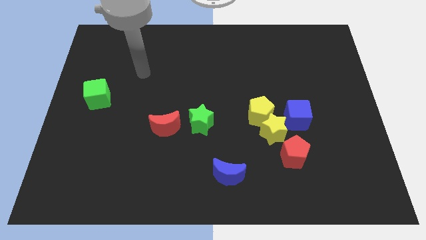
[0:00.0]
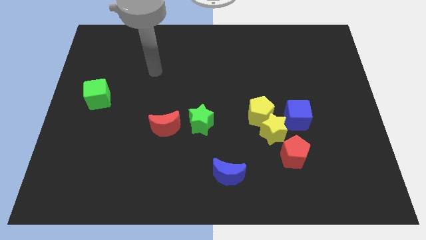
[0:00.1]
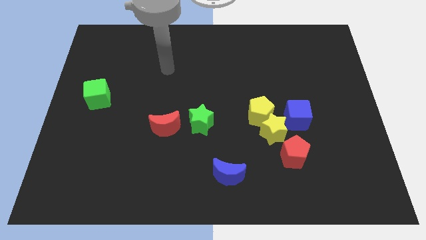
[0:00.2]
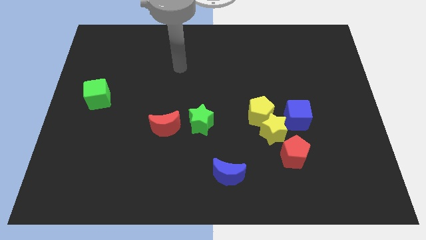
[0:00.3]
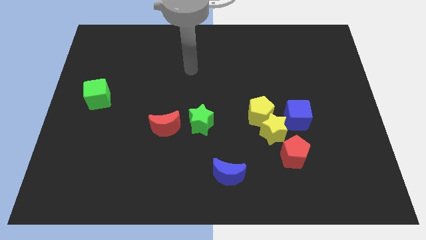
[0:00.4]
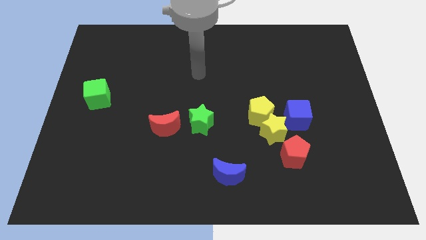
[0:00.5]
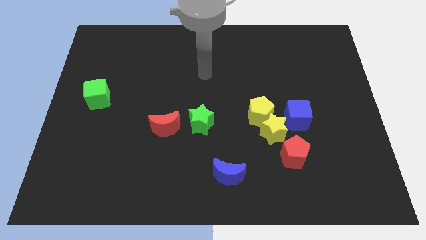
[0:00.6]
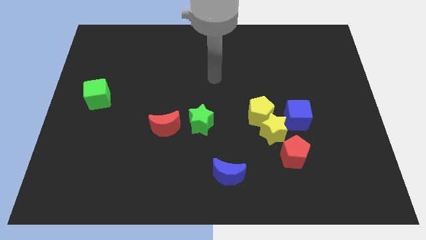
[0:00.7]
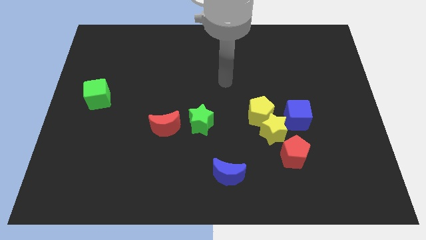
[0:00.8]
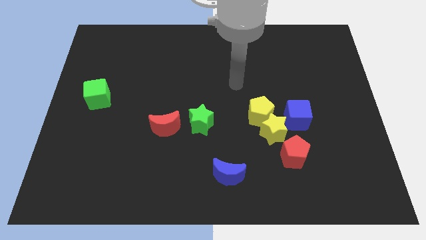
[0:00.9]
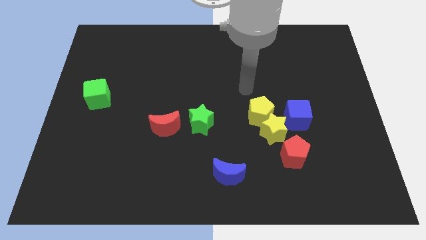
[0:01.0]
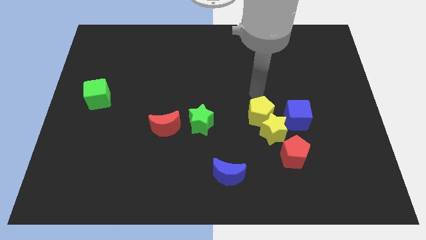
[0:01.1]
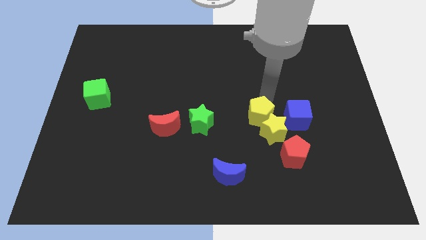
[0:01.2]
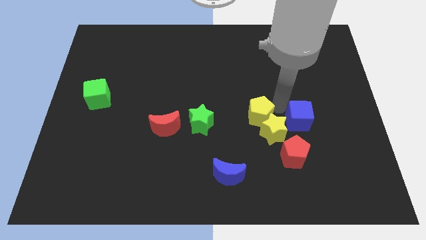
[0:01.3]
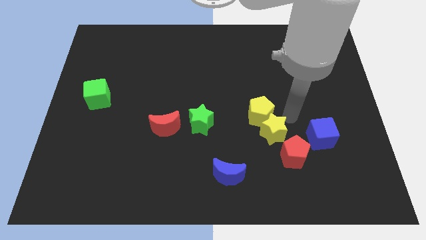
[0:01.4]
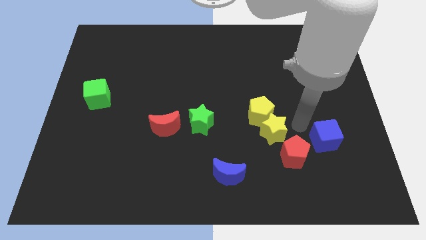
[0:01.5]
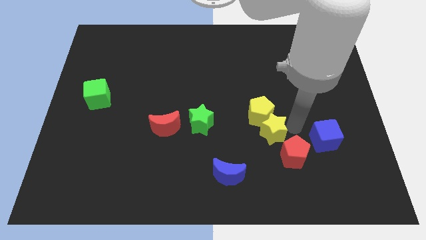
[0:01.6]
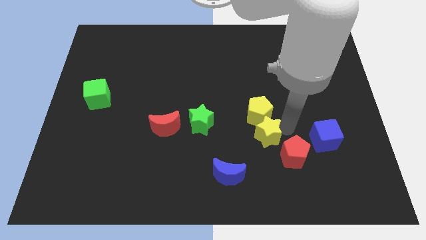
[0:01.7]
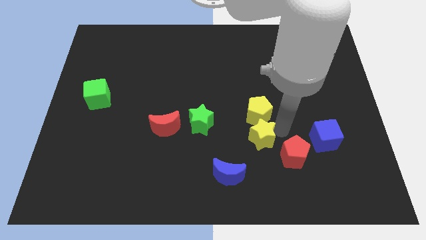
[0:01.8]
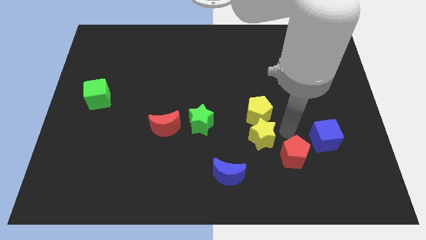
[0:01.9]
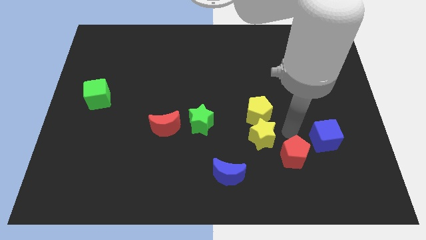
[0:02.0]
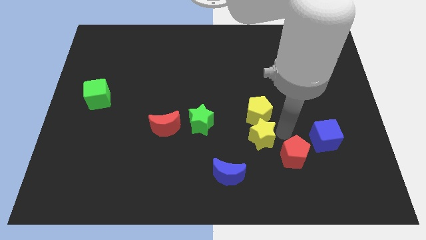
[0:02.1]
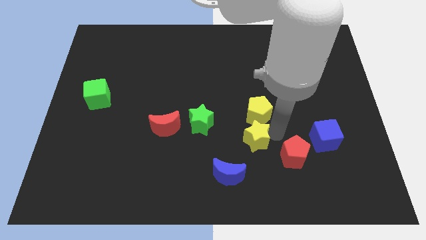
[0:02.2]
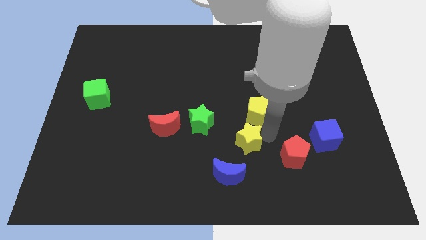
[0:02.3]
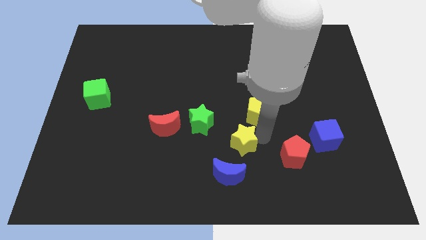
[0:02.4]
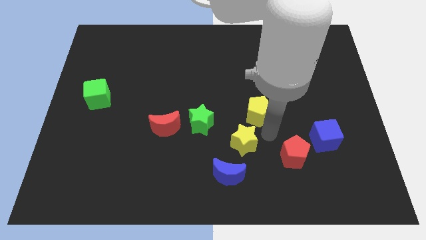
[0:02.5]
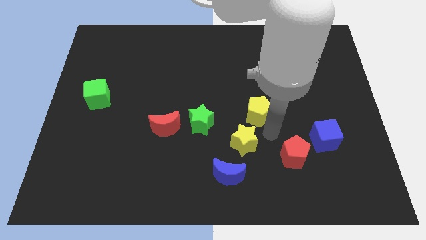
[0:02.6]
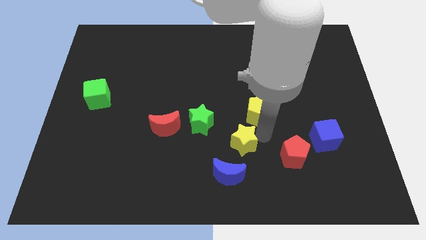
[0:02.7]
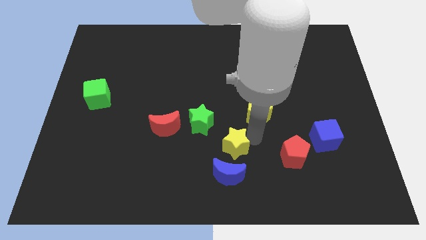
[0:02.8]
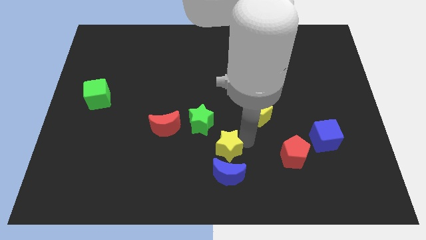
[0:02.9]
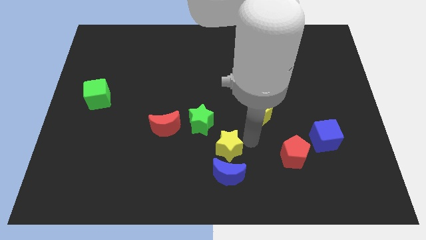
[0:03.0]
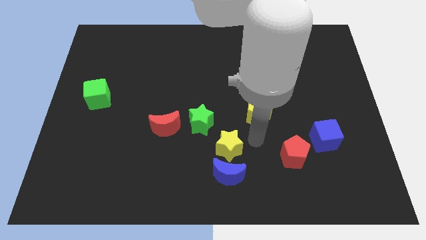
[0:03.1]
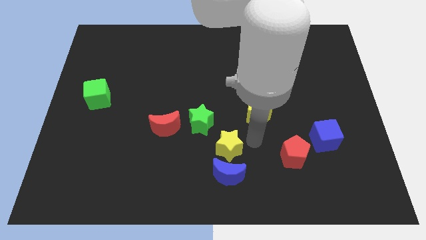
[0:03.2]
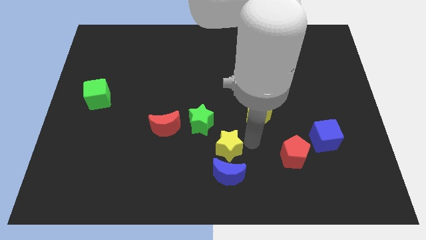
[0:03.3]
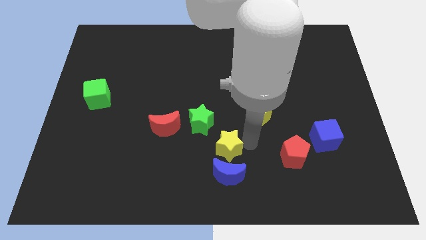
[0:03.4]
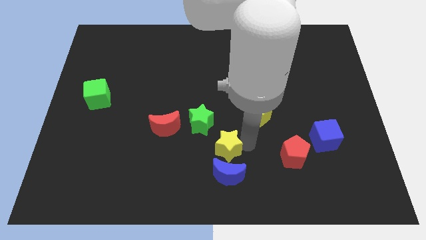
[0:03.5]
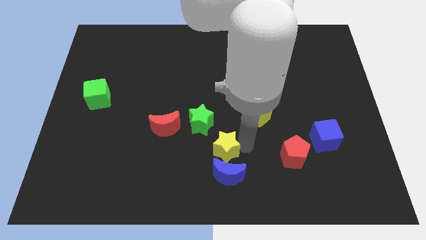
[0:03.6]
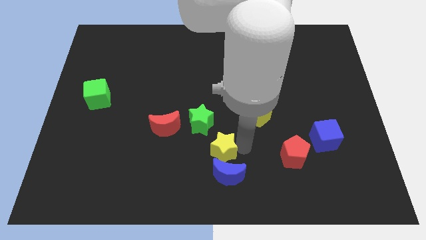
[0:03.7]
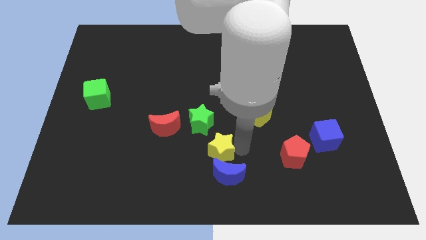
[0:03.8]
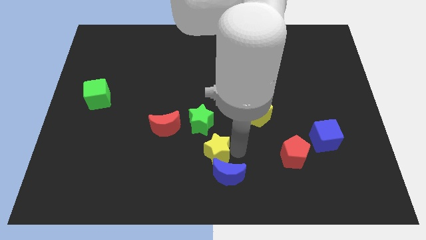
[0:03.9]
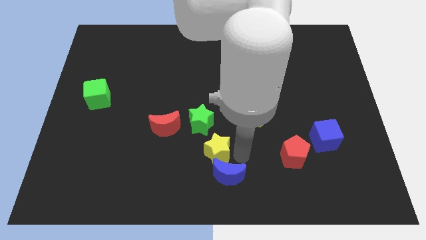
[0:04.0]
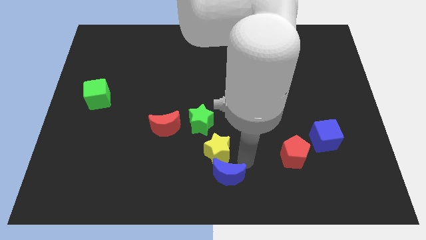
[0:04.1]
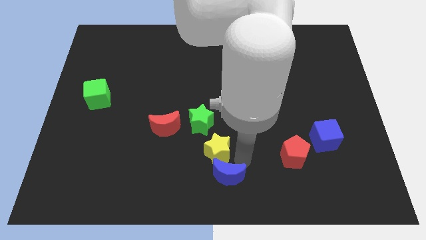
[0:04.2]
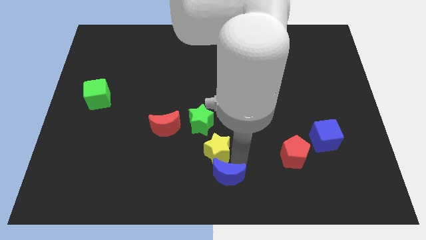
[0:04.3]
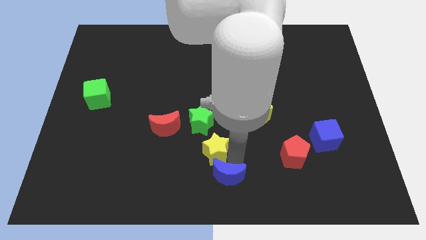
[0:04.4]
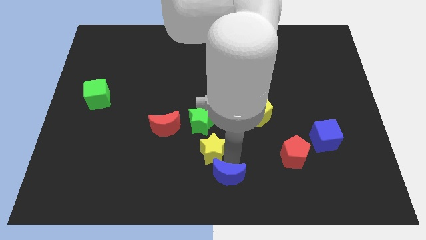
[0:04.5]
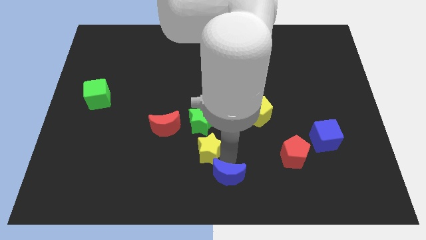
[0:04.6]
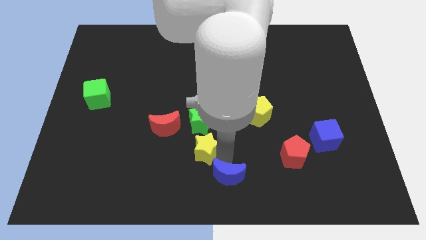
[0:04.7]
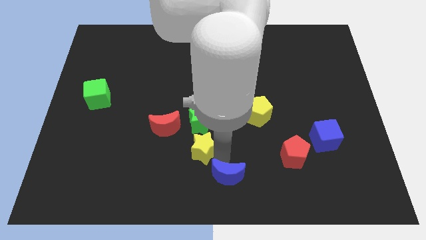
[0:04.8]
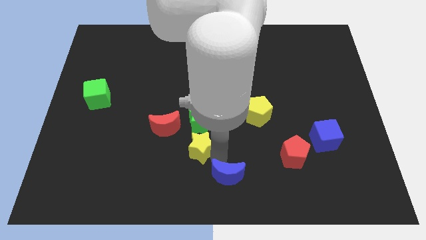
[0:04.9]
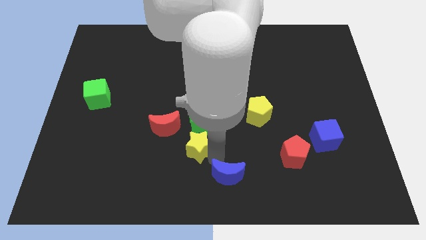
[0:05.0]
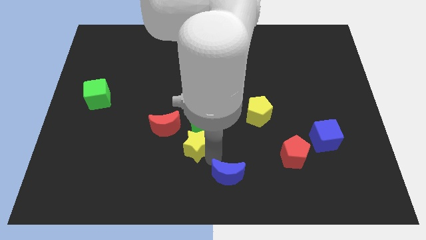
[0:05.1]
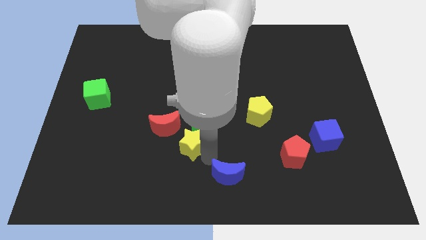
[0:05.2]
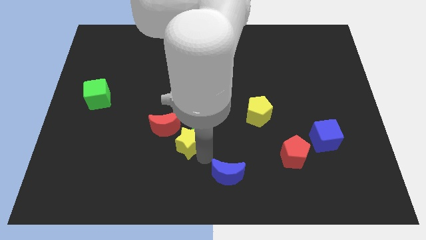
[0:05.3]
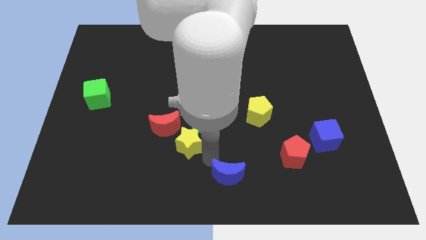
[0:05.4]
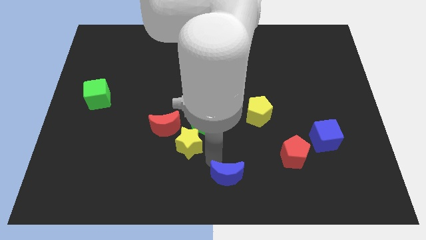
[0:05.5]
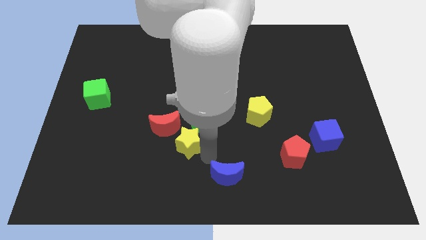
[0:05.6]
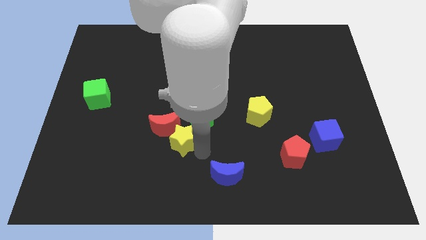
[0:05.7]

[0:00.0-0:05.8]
move the yellow star to the red moon

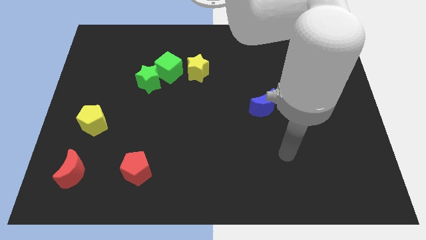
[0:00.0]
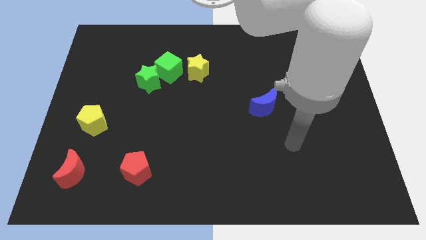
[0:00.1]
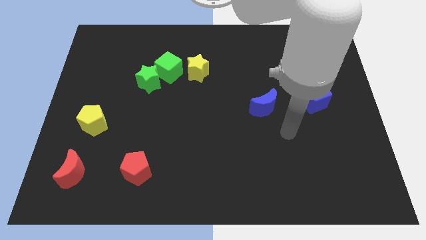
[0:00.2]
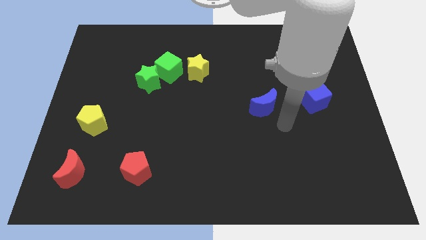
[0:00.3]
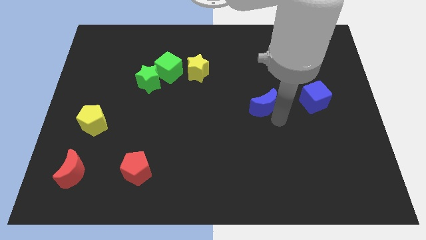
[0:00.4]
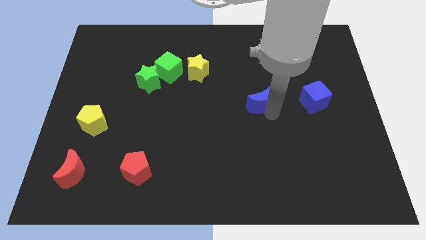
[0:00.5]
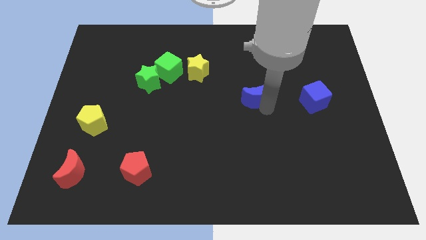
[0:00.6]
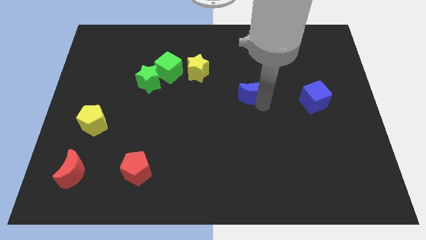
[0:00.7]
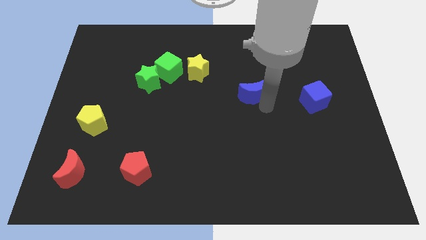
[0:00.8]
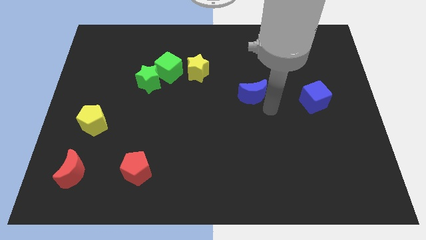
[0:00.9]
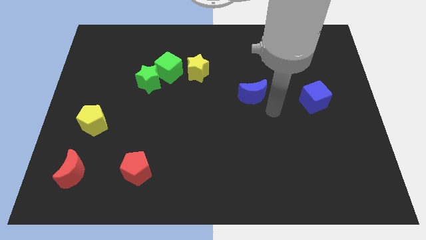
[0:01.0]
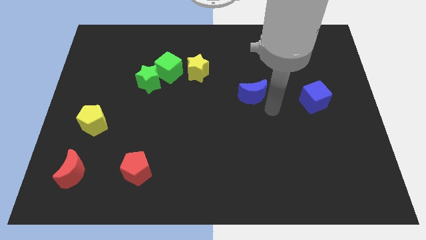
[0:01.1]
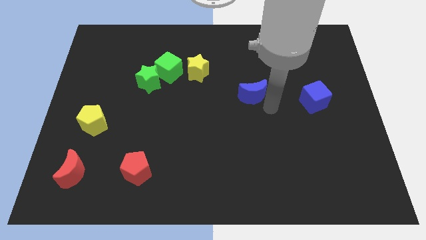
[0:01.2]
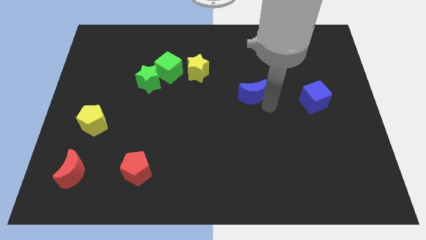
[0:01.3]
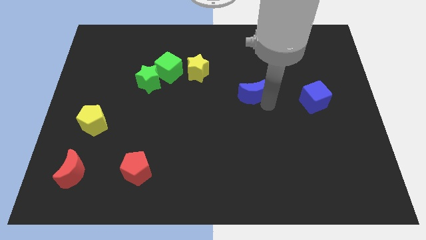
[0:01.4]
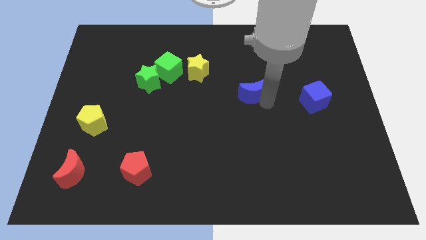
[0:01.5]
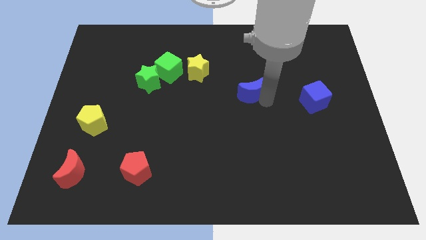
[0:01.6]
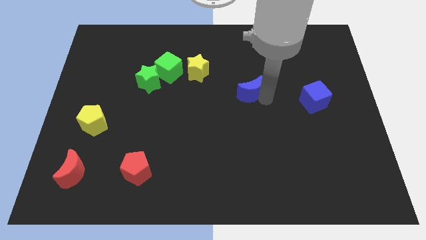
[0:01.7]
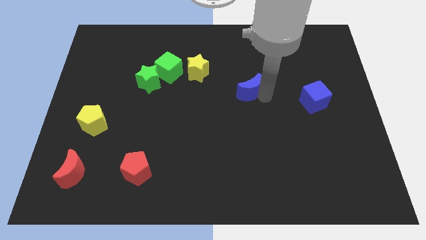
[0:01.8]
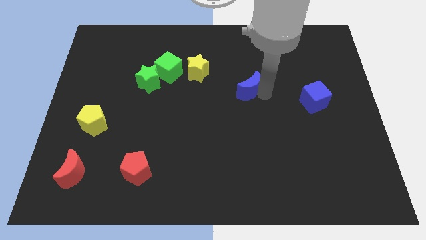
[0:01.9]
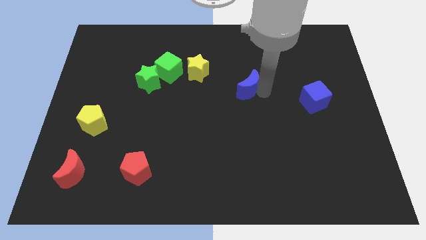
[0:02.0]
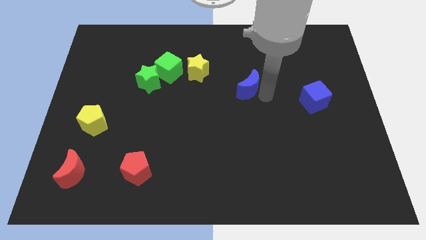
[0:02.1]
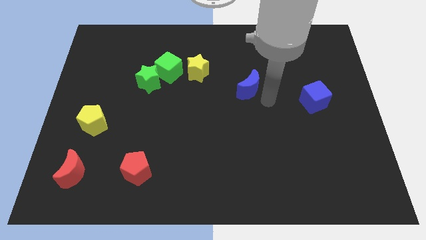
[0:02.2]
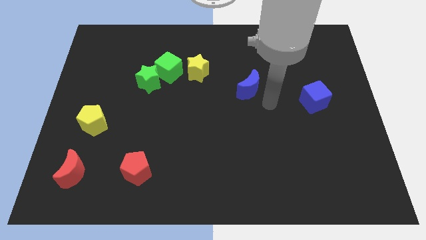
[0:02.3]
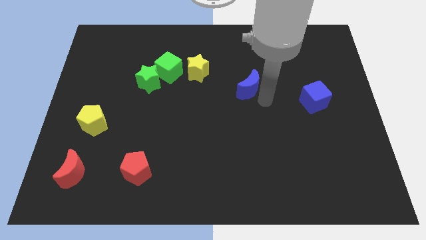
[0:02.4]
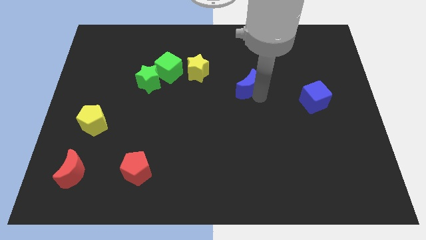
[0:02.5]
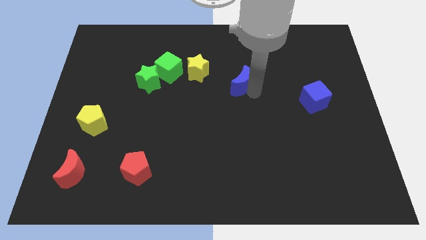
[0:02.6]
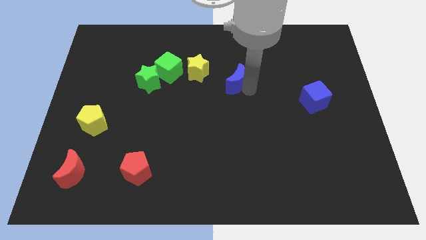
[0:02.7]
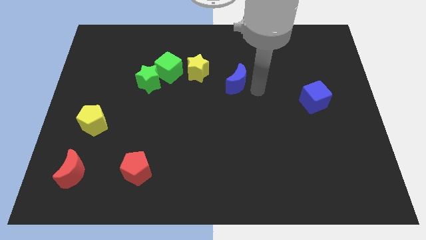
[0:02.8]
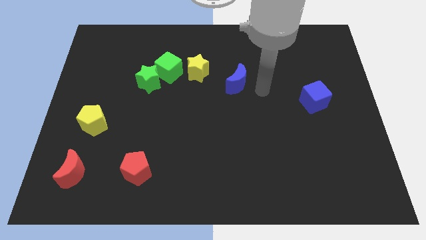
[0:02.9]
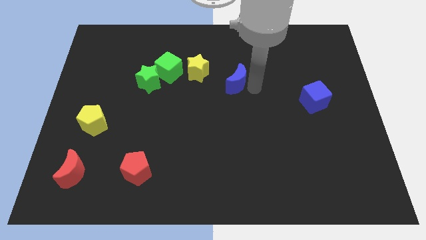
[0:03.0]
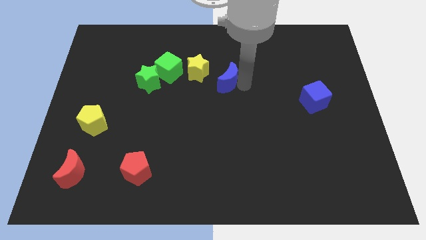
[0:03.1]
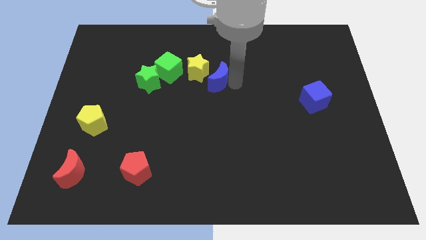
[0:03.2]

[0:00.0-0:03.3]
move the blue moon next to the yellow star
